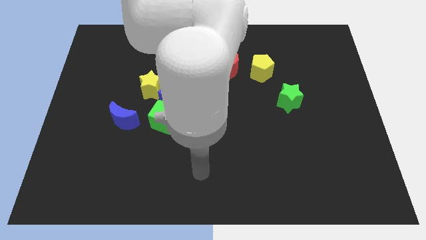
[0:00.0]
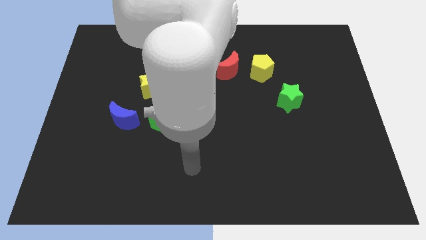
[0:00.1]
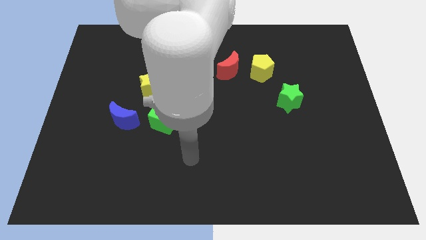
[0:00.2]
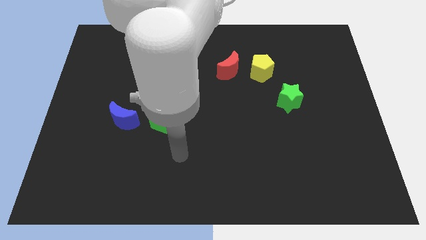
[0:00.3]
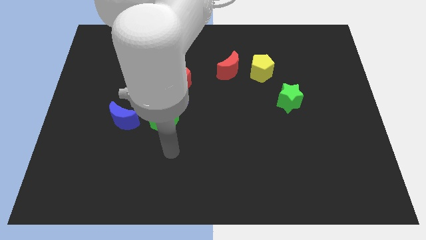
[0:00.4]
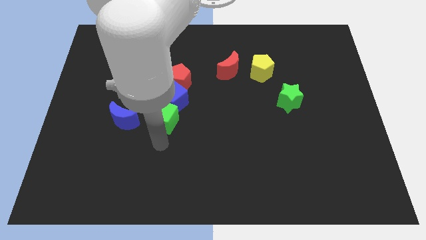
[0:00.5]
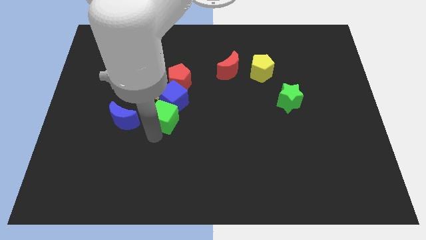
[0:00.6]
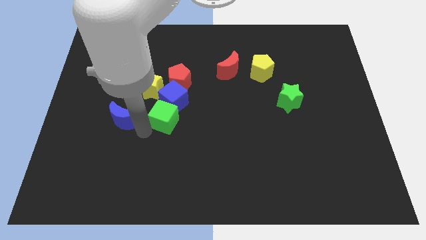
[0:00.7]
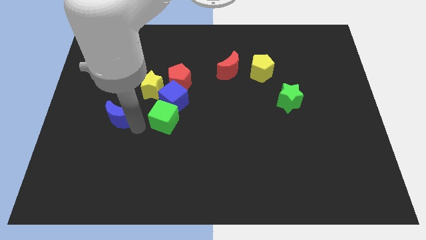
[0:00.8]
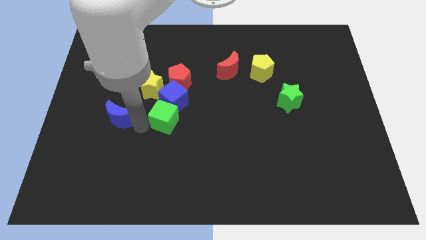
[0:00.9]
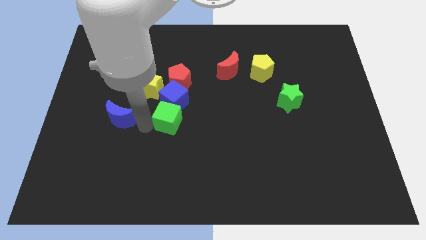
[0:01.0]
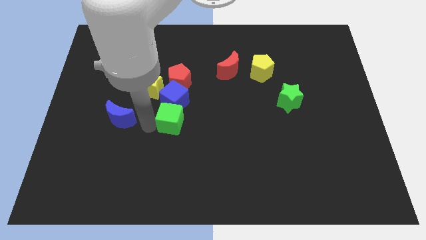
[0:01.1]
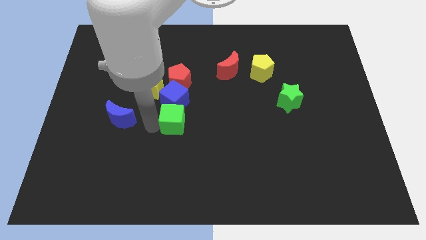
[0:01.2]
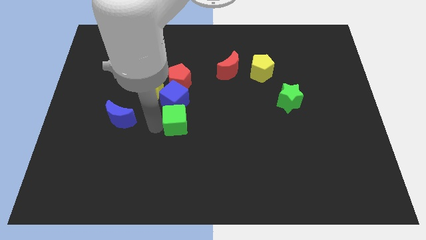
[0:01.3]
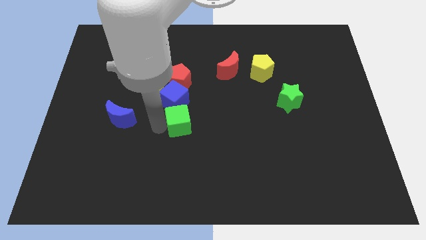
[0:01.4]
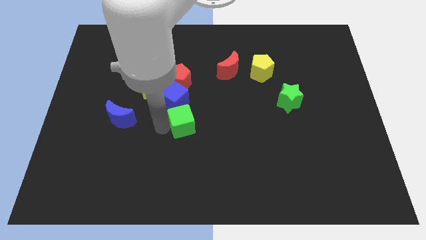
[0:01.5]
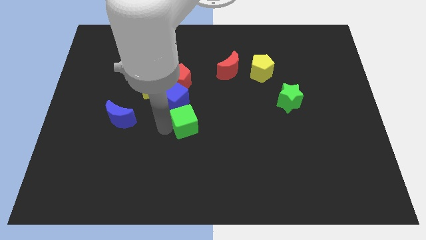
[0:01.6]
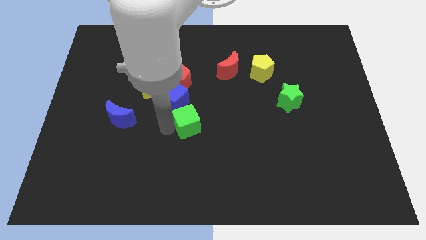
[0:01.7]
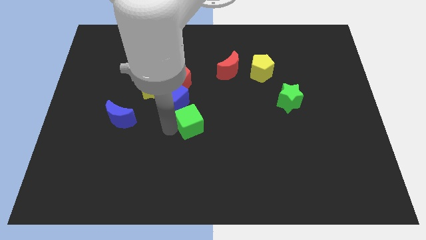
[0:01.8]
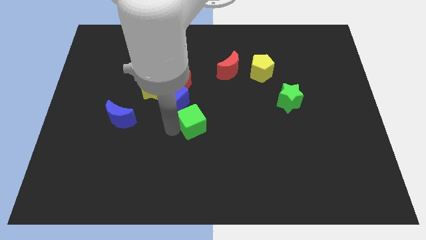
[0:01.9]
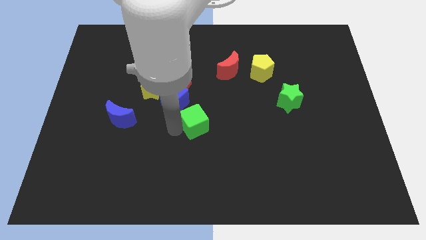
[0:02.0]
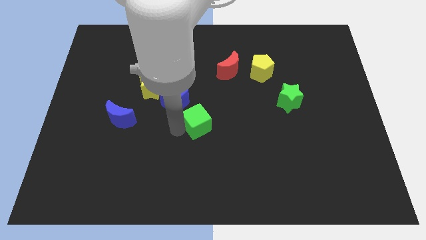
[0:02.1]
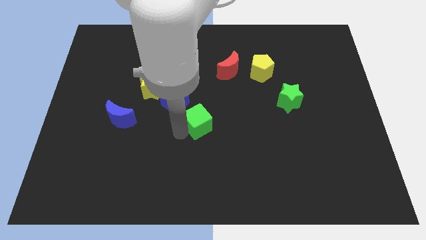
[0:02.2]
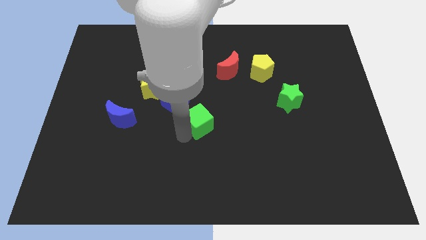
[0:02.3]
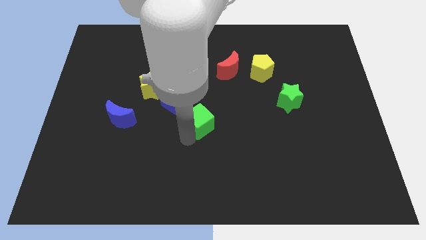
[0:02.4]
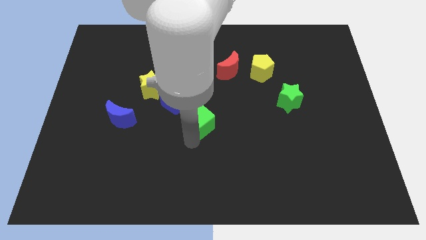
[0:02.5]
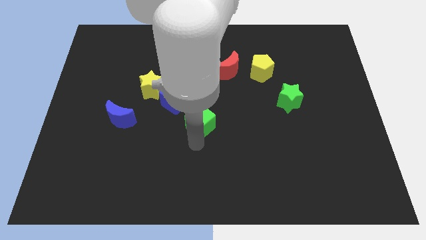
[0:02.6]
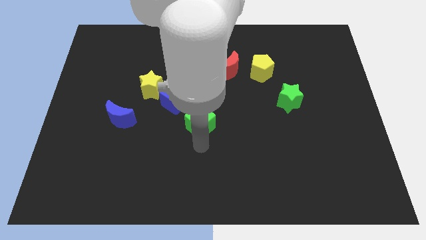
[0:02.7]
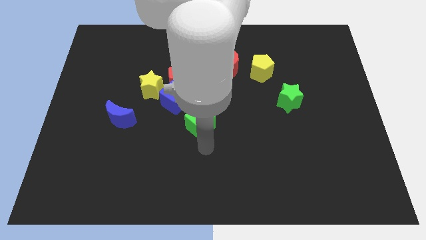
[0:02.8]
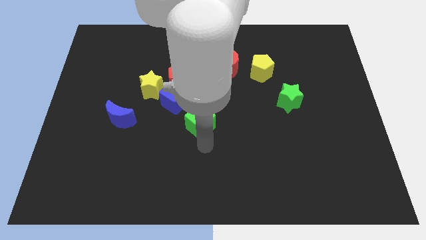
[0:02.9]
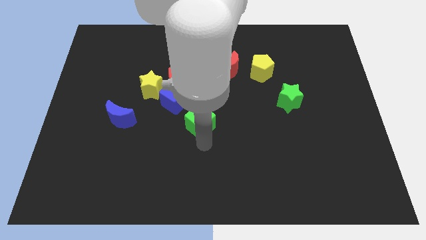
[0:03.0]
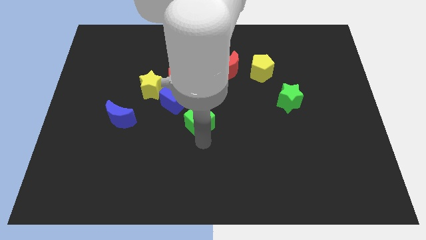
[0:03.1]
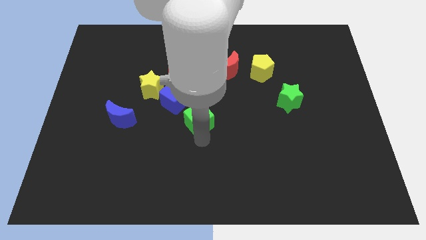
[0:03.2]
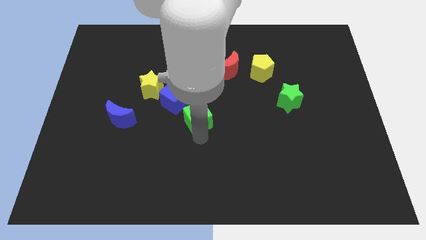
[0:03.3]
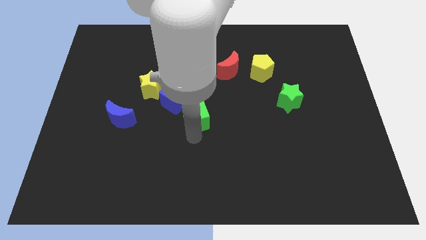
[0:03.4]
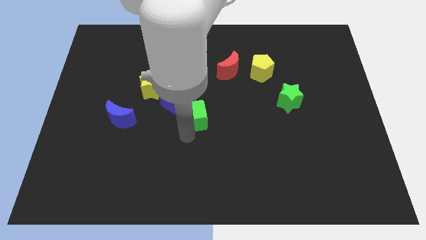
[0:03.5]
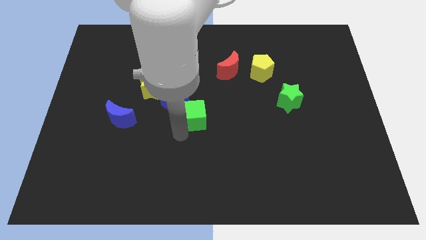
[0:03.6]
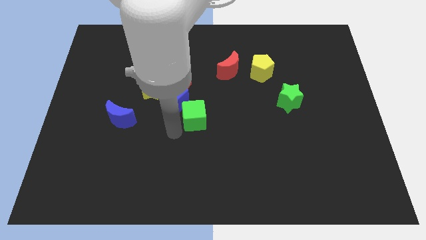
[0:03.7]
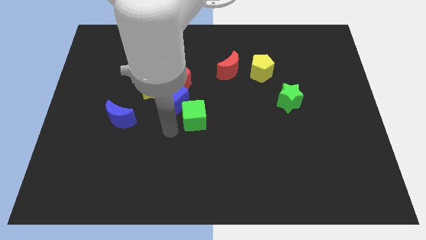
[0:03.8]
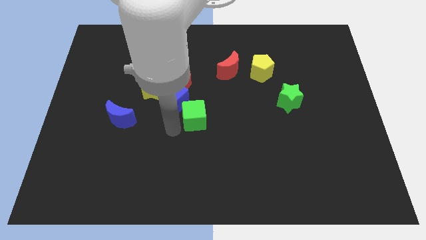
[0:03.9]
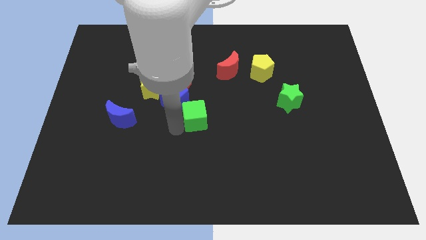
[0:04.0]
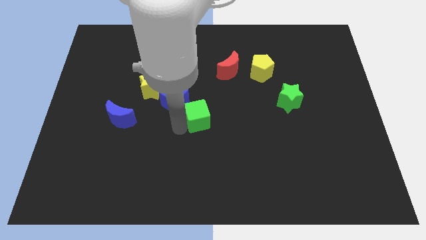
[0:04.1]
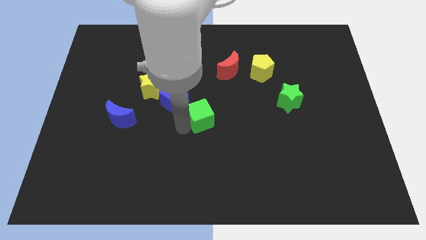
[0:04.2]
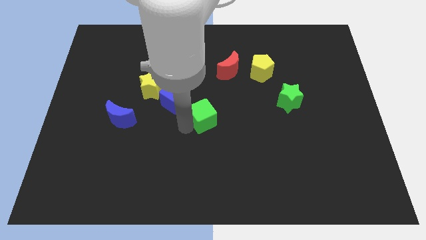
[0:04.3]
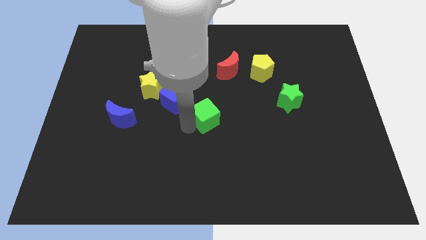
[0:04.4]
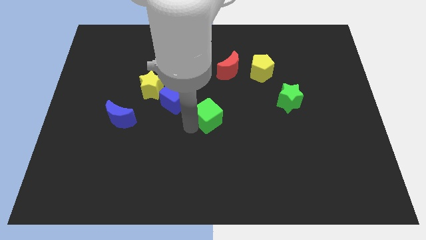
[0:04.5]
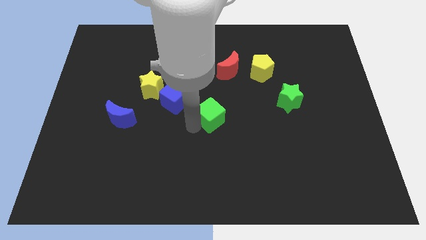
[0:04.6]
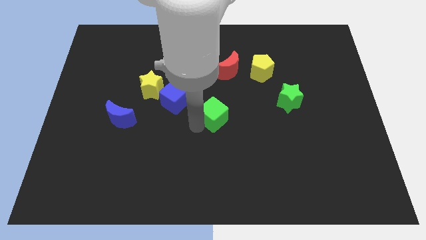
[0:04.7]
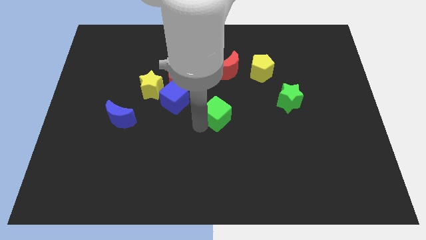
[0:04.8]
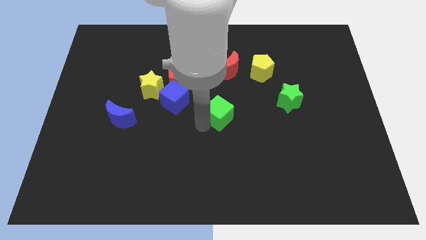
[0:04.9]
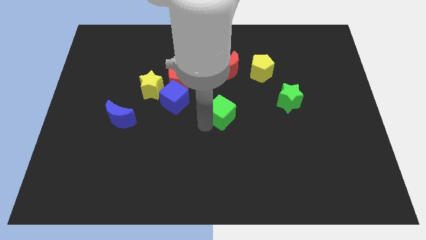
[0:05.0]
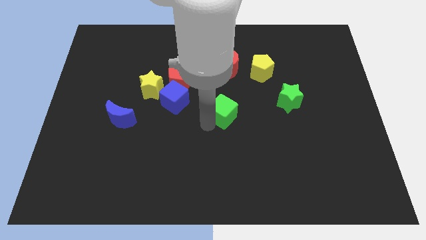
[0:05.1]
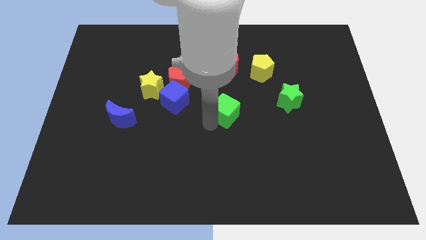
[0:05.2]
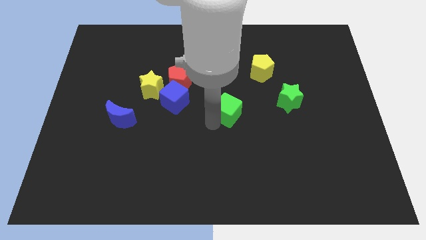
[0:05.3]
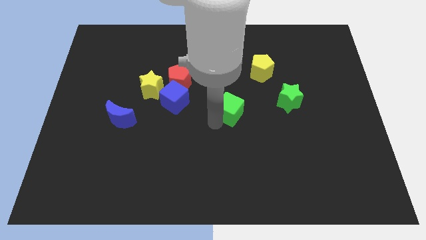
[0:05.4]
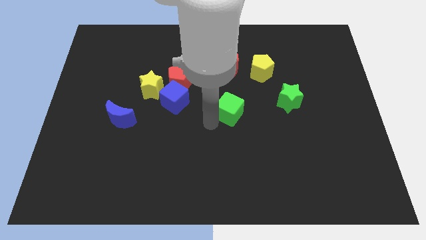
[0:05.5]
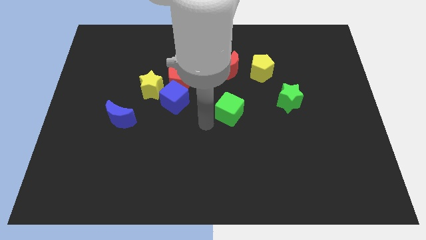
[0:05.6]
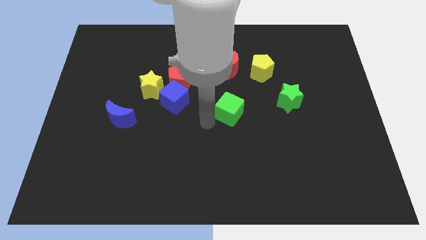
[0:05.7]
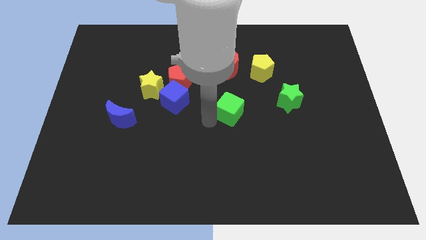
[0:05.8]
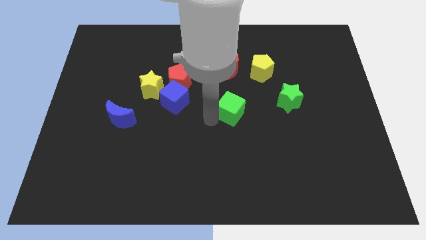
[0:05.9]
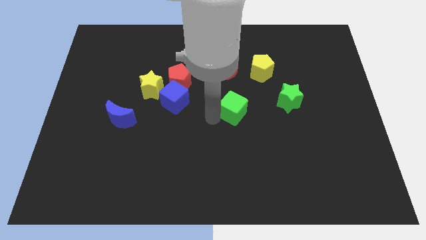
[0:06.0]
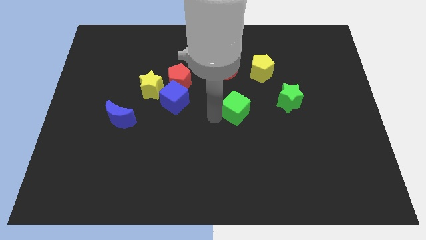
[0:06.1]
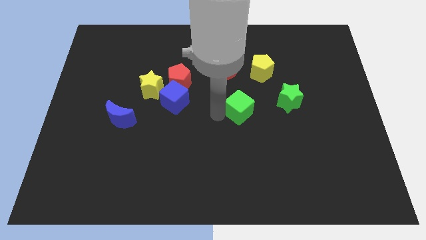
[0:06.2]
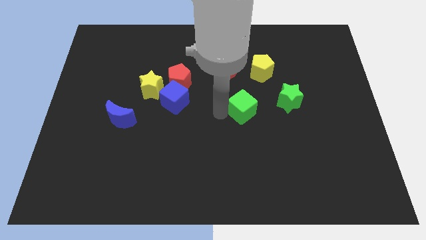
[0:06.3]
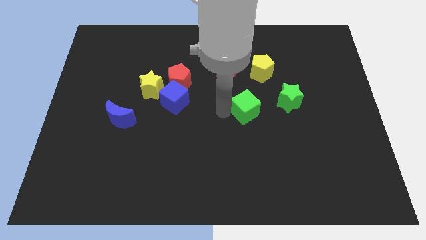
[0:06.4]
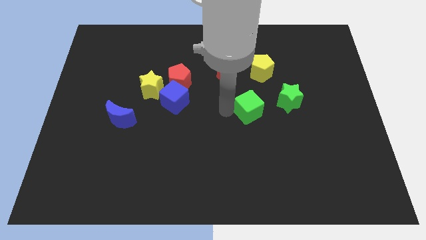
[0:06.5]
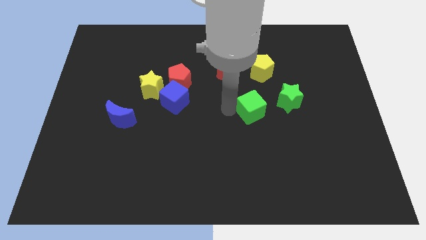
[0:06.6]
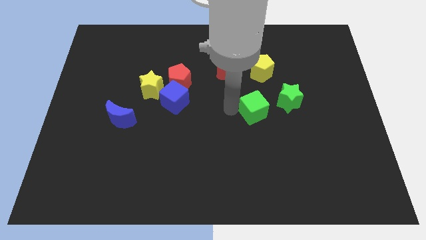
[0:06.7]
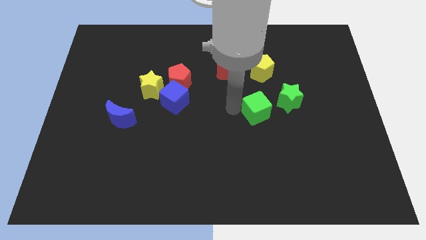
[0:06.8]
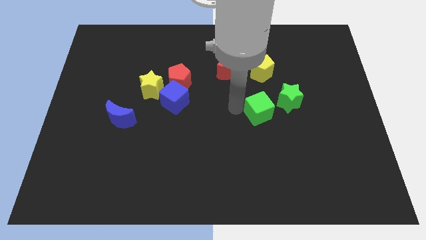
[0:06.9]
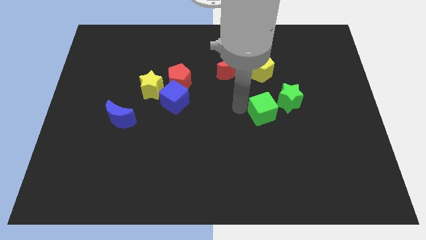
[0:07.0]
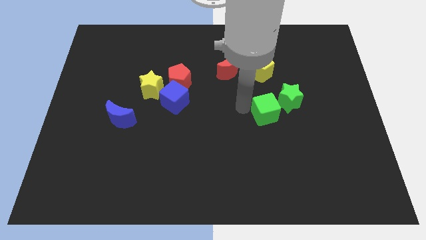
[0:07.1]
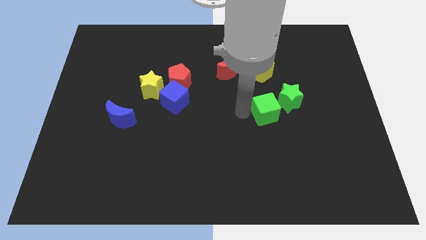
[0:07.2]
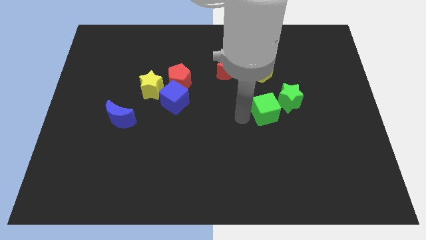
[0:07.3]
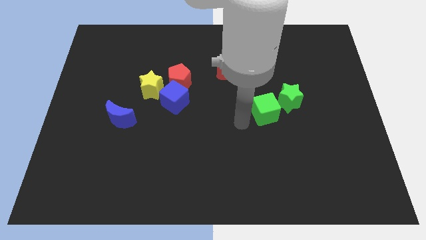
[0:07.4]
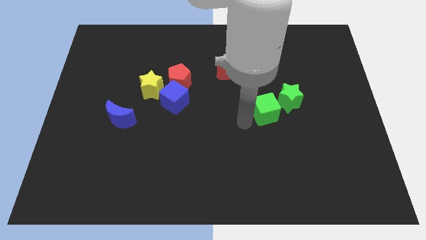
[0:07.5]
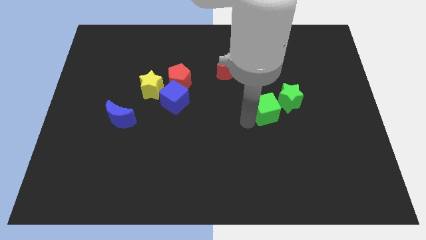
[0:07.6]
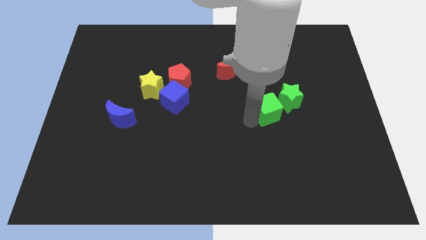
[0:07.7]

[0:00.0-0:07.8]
slide the green cube next to the green star
